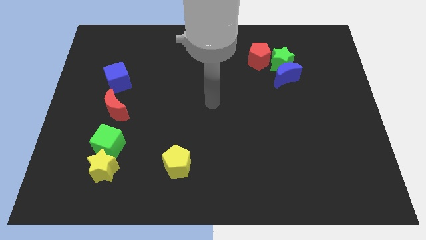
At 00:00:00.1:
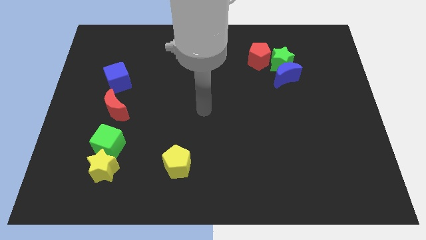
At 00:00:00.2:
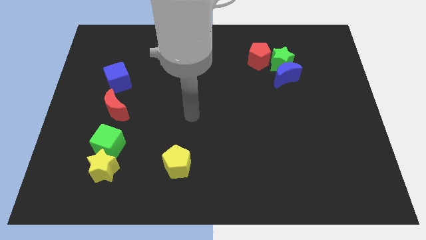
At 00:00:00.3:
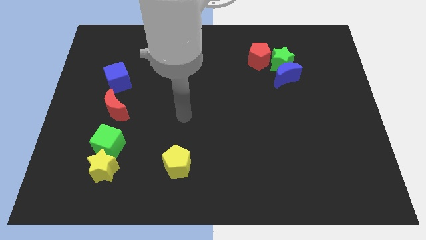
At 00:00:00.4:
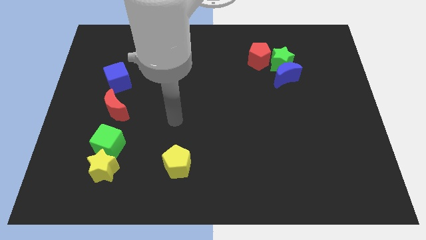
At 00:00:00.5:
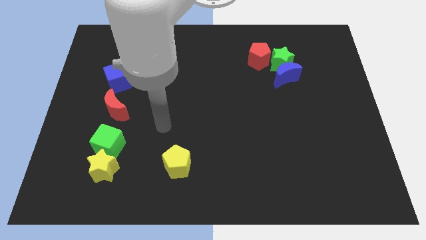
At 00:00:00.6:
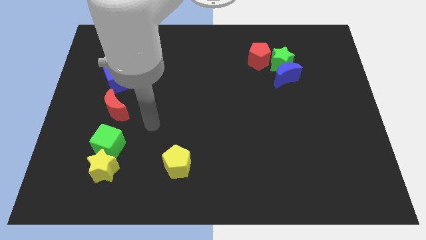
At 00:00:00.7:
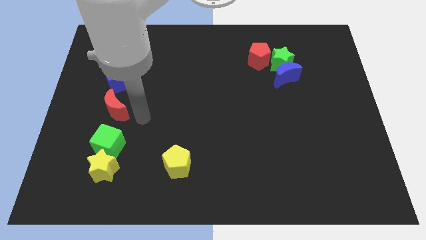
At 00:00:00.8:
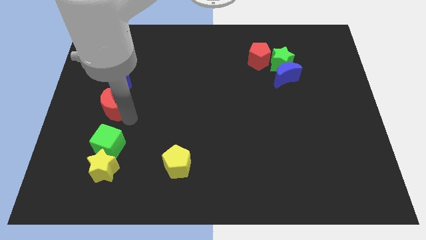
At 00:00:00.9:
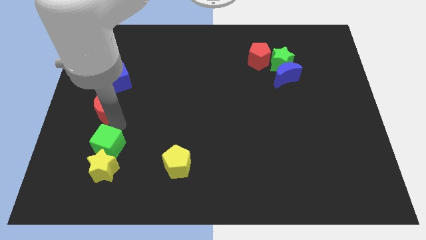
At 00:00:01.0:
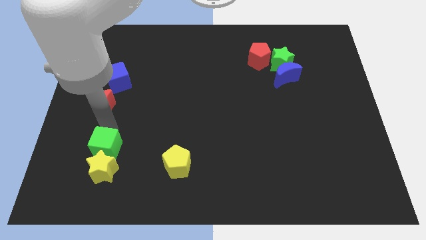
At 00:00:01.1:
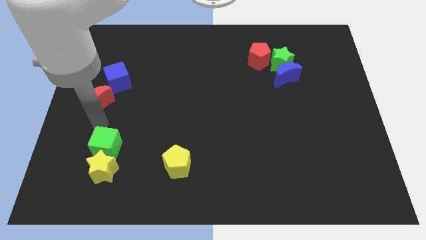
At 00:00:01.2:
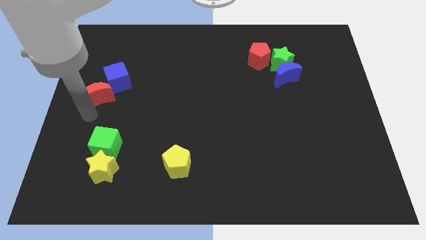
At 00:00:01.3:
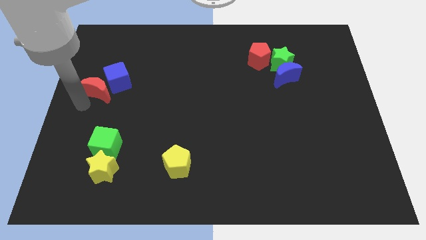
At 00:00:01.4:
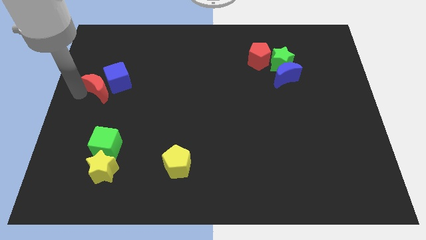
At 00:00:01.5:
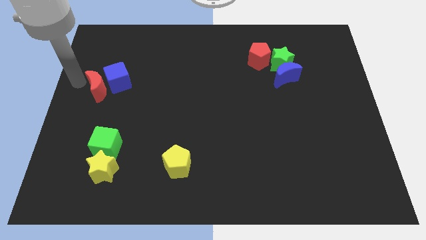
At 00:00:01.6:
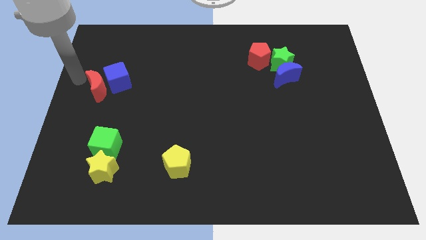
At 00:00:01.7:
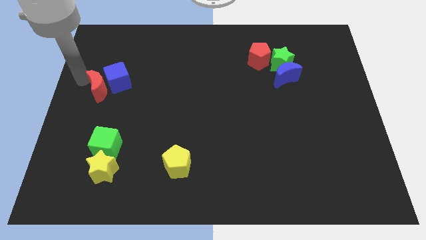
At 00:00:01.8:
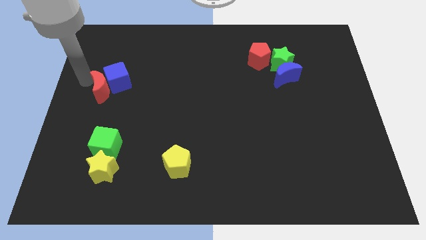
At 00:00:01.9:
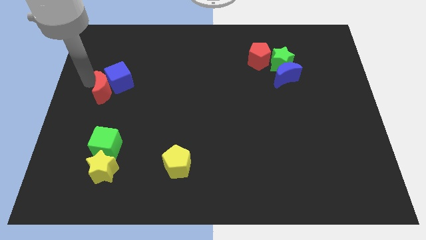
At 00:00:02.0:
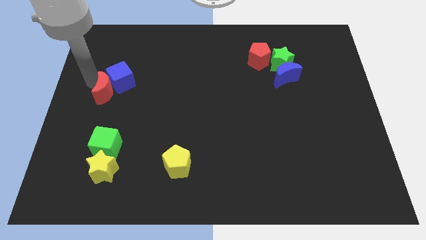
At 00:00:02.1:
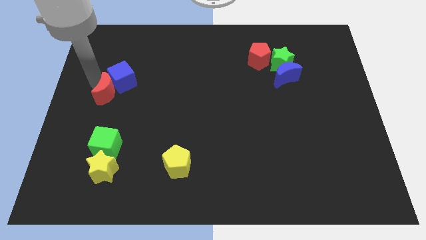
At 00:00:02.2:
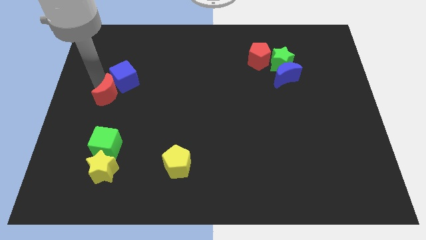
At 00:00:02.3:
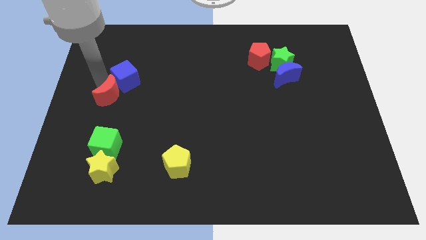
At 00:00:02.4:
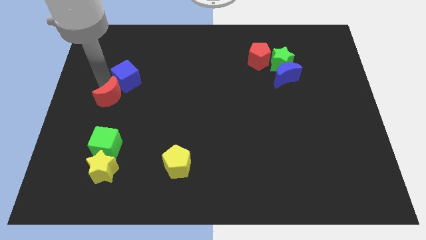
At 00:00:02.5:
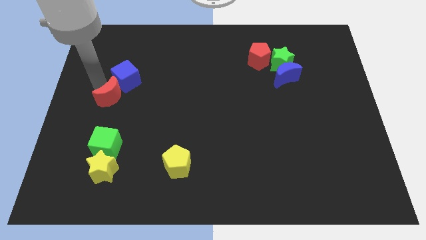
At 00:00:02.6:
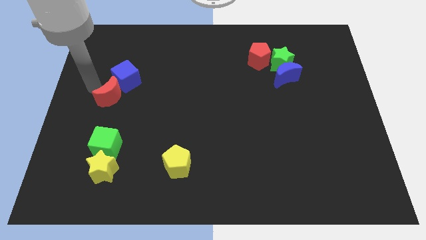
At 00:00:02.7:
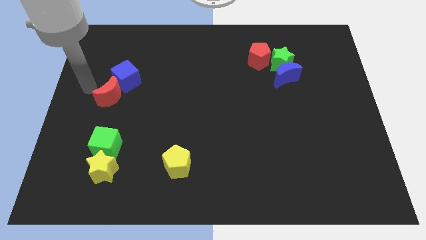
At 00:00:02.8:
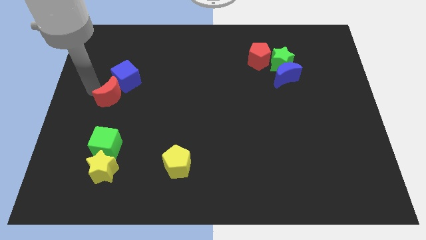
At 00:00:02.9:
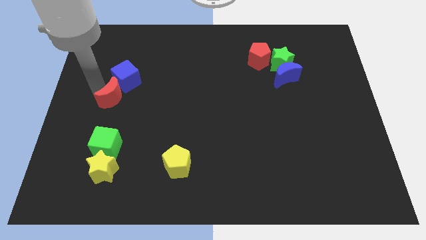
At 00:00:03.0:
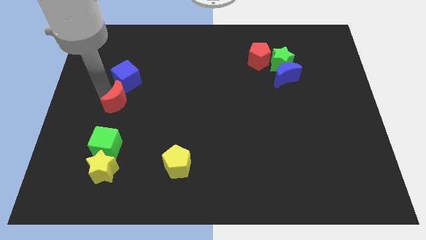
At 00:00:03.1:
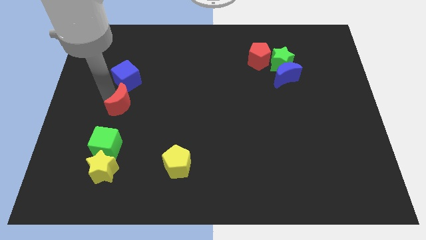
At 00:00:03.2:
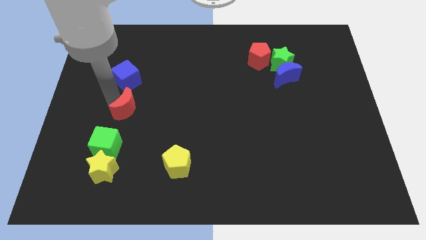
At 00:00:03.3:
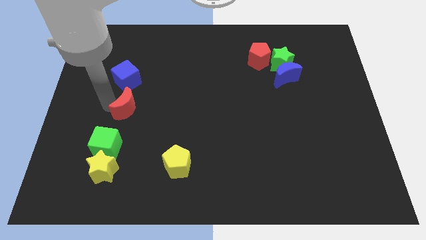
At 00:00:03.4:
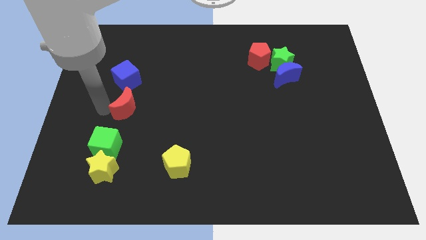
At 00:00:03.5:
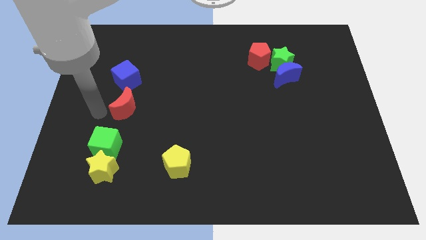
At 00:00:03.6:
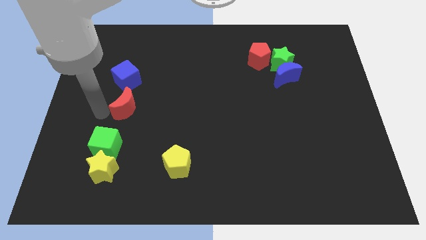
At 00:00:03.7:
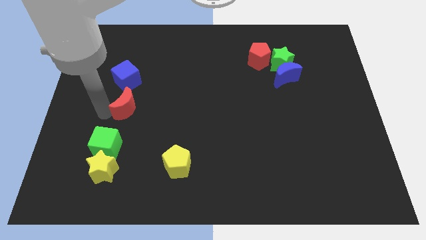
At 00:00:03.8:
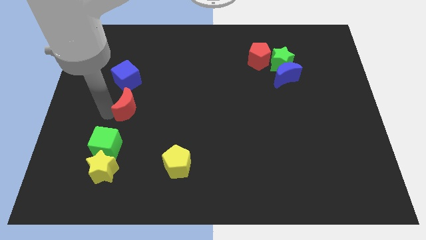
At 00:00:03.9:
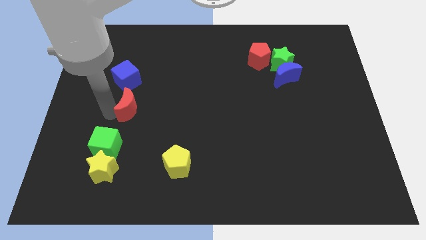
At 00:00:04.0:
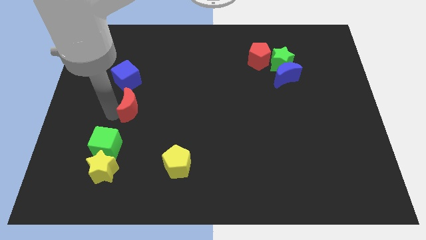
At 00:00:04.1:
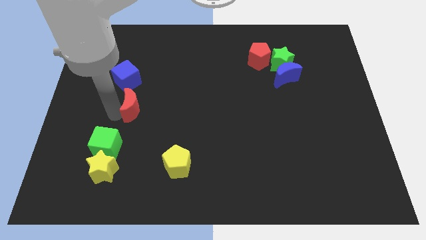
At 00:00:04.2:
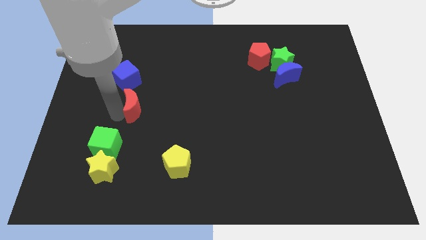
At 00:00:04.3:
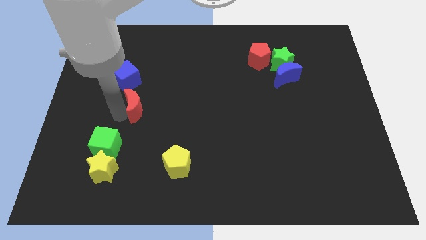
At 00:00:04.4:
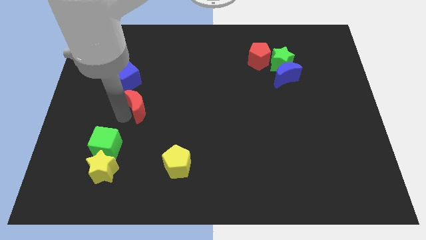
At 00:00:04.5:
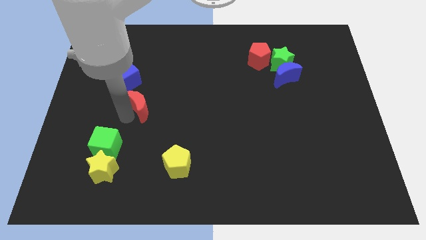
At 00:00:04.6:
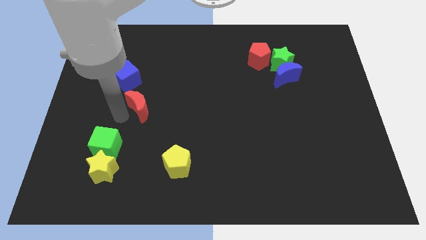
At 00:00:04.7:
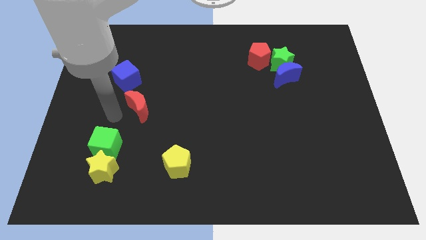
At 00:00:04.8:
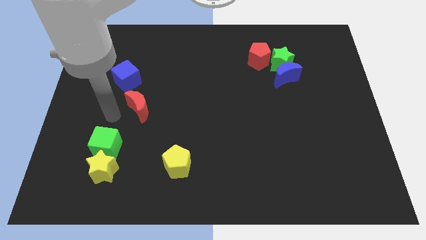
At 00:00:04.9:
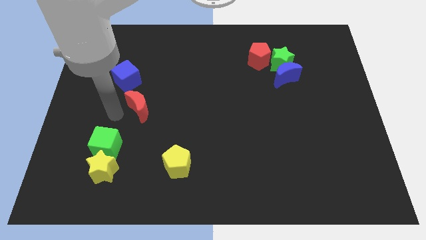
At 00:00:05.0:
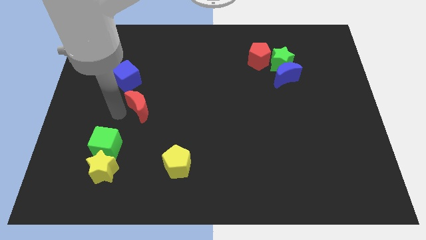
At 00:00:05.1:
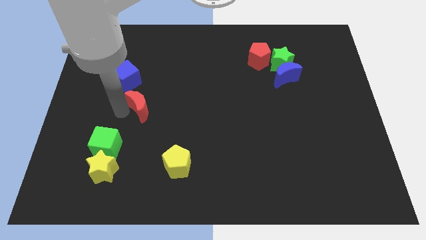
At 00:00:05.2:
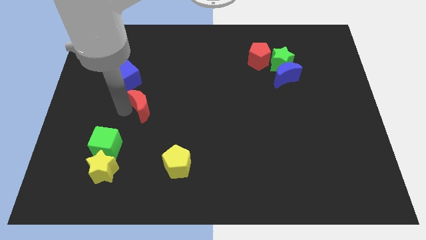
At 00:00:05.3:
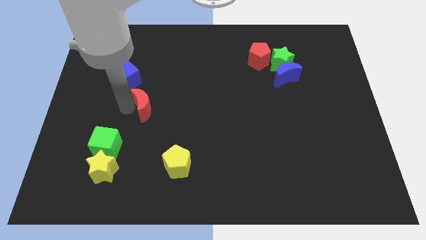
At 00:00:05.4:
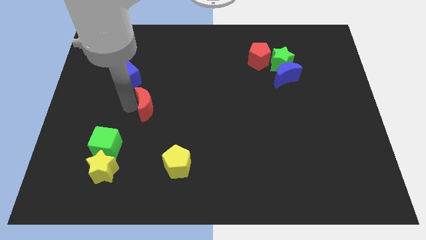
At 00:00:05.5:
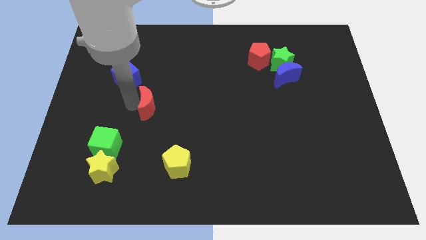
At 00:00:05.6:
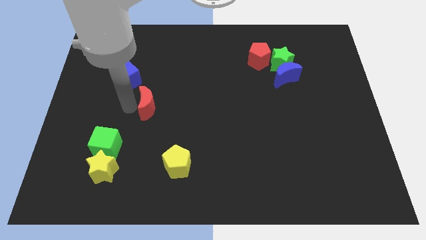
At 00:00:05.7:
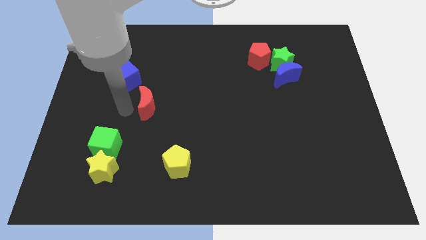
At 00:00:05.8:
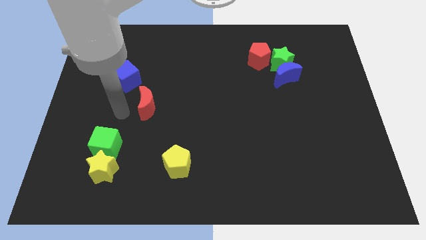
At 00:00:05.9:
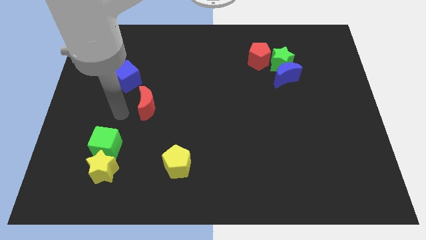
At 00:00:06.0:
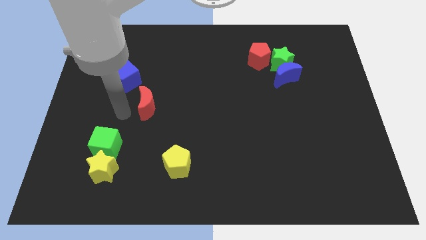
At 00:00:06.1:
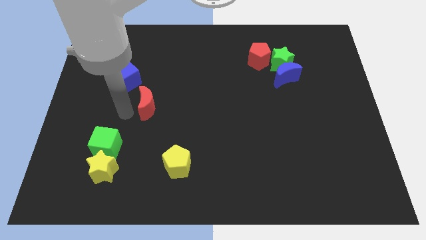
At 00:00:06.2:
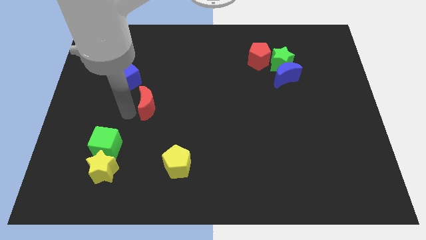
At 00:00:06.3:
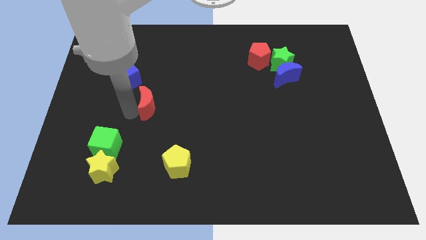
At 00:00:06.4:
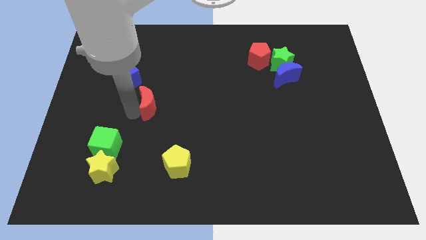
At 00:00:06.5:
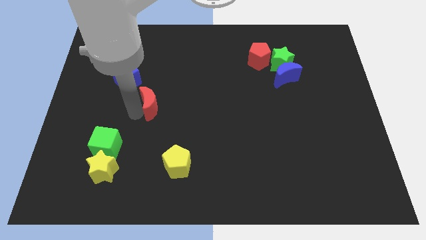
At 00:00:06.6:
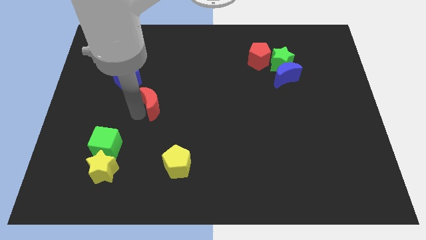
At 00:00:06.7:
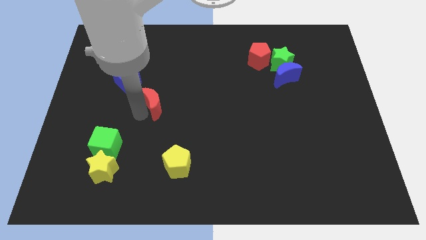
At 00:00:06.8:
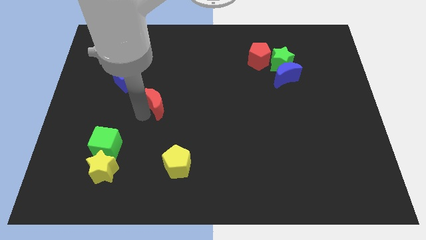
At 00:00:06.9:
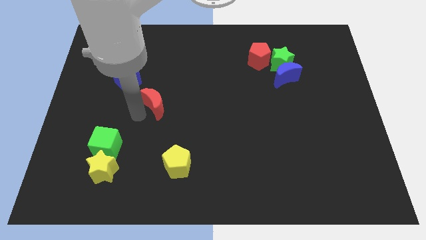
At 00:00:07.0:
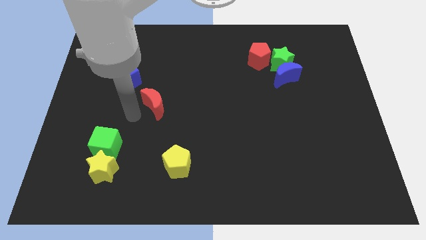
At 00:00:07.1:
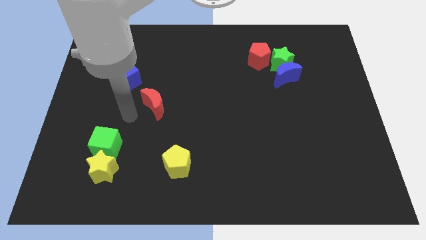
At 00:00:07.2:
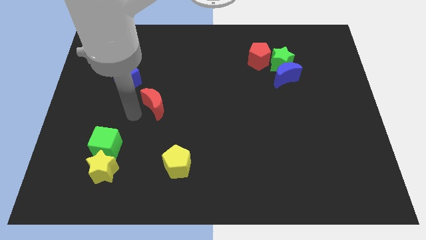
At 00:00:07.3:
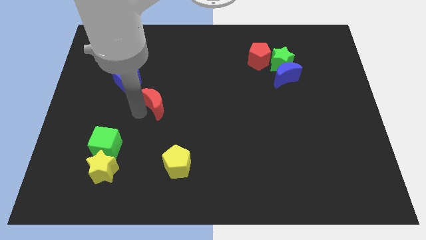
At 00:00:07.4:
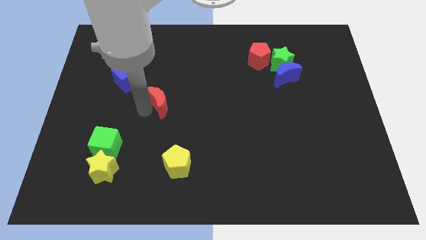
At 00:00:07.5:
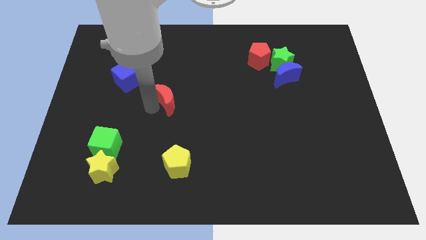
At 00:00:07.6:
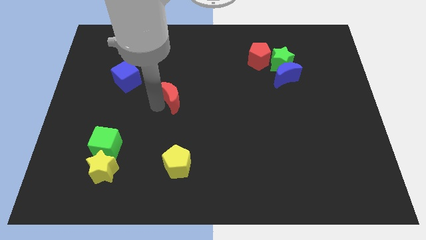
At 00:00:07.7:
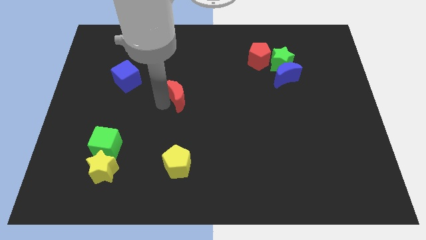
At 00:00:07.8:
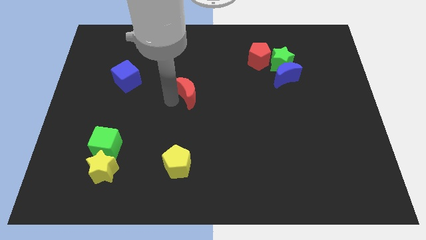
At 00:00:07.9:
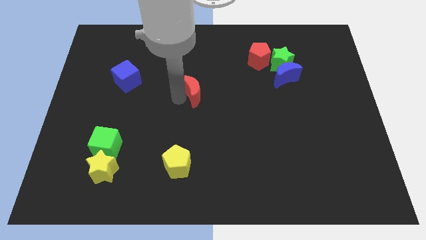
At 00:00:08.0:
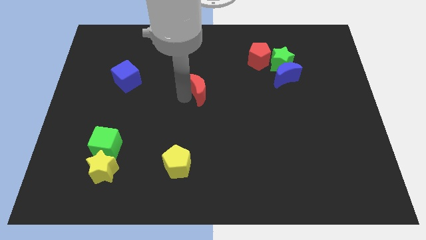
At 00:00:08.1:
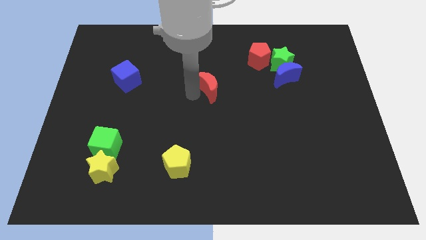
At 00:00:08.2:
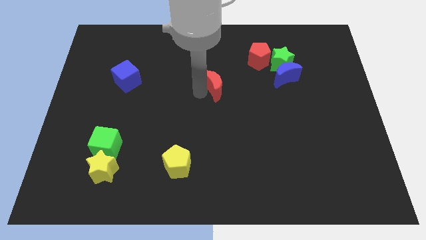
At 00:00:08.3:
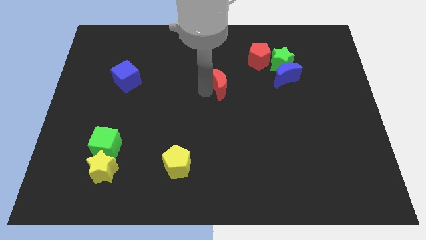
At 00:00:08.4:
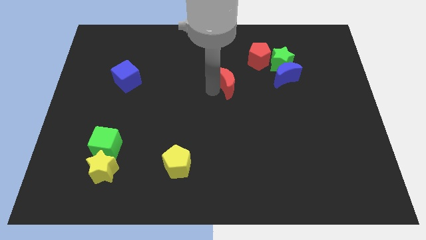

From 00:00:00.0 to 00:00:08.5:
move the red moon diagonally down and to the left of the red pentagon
